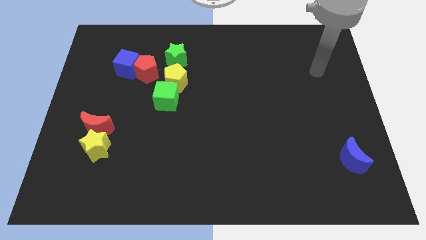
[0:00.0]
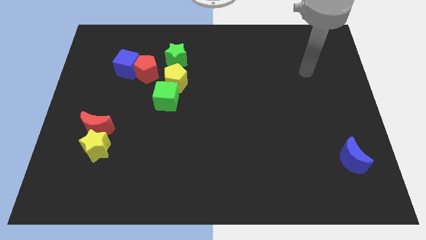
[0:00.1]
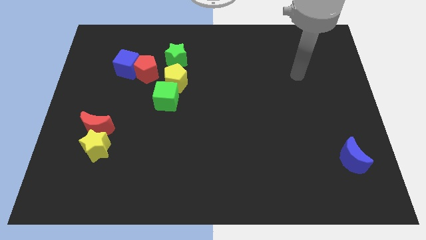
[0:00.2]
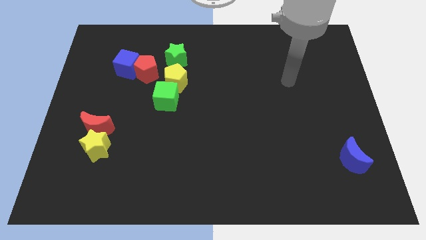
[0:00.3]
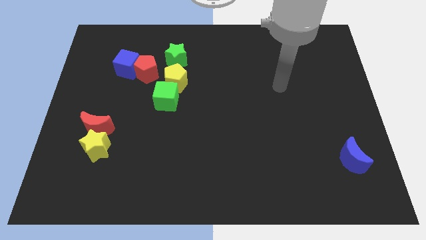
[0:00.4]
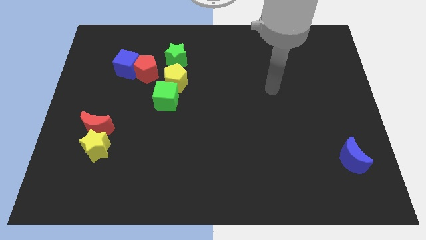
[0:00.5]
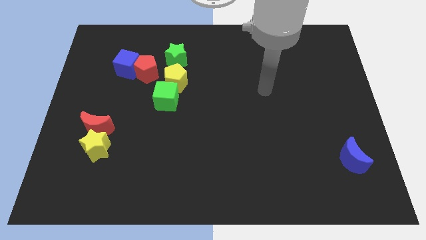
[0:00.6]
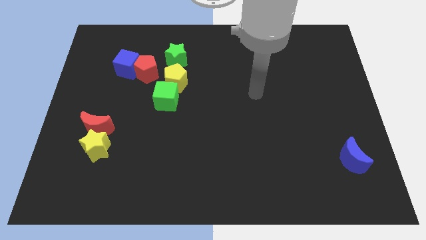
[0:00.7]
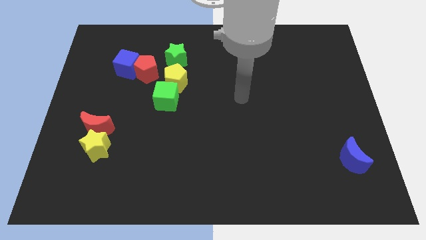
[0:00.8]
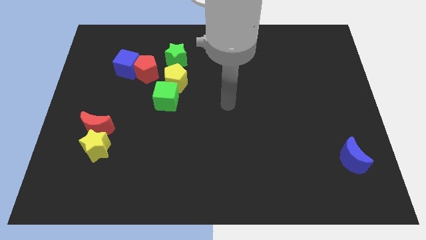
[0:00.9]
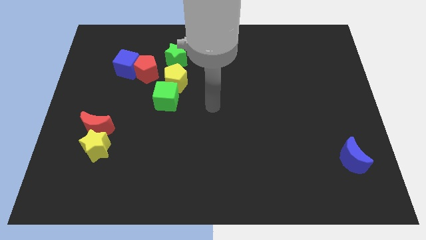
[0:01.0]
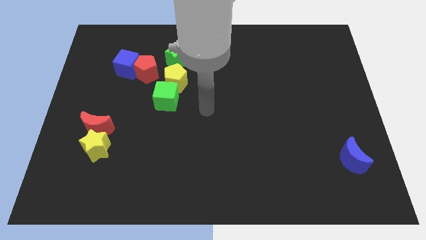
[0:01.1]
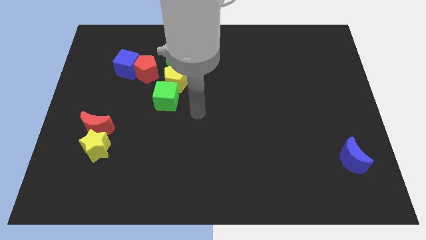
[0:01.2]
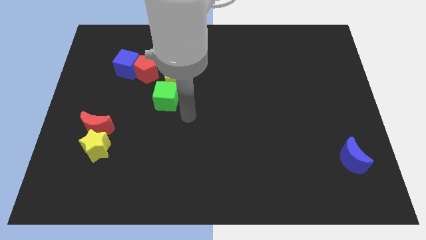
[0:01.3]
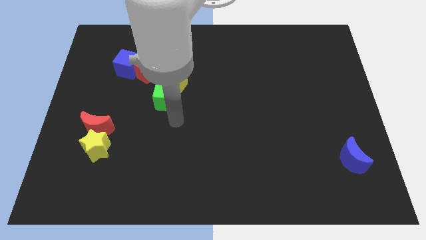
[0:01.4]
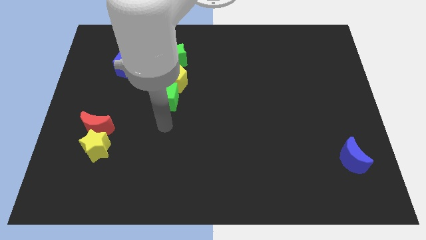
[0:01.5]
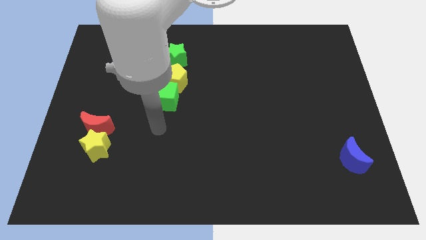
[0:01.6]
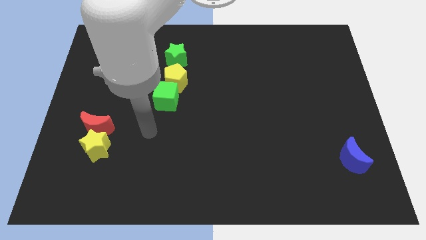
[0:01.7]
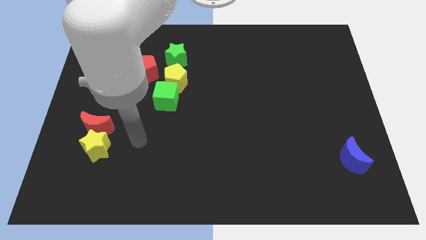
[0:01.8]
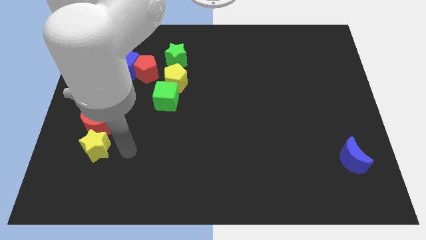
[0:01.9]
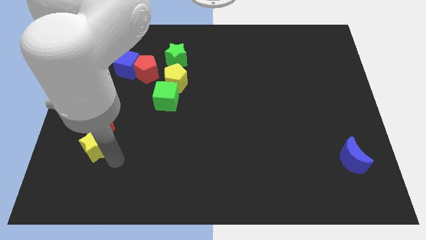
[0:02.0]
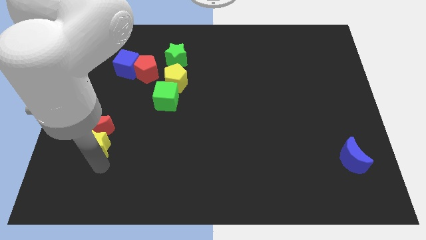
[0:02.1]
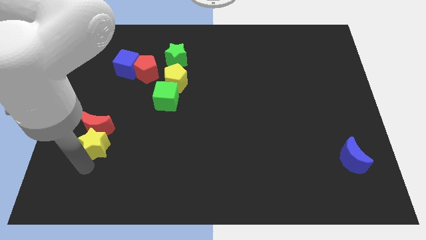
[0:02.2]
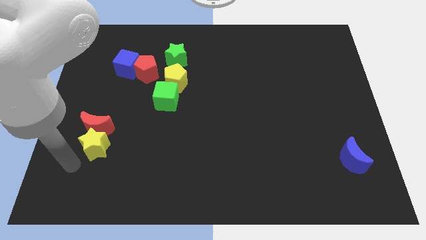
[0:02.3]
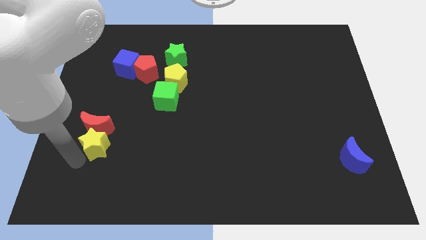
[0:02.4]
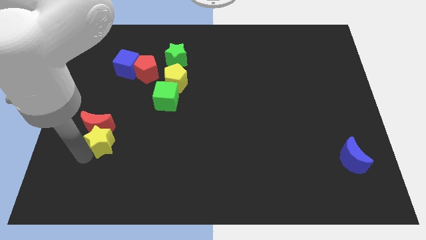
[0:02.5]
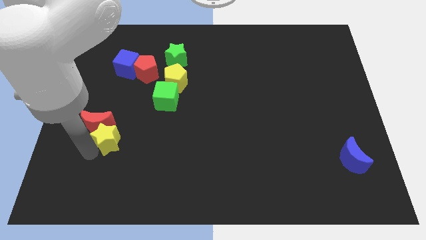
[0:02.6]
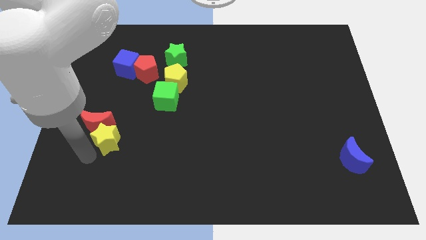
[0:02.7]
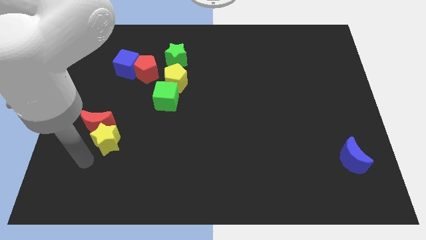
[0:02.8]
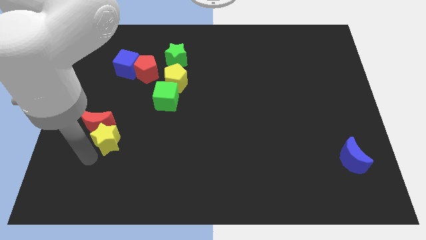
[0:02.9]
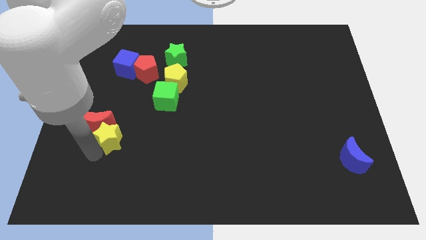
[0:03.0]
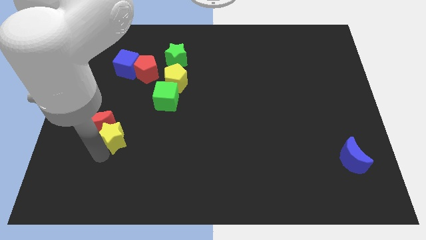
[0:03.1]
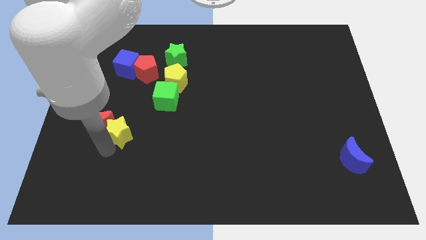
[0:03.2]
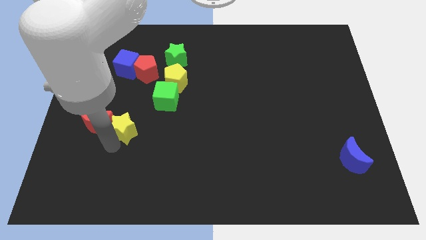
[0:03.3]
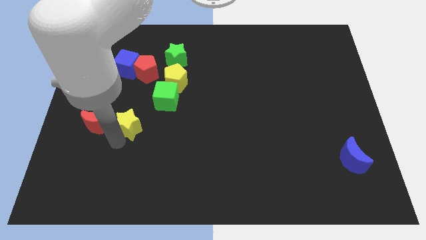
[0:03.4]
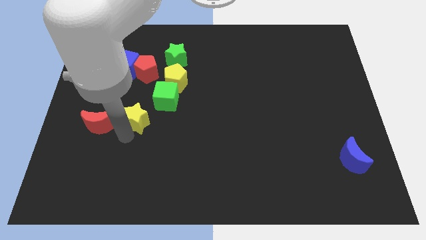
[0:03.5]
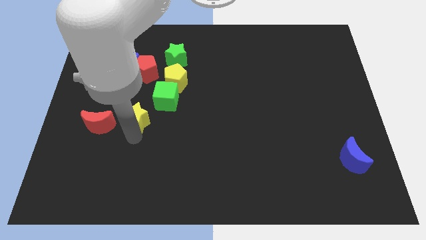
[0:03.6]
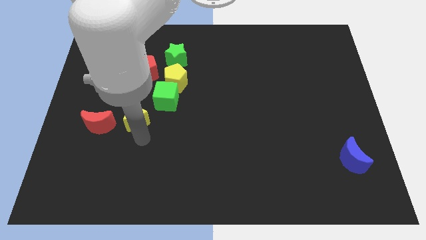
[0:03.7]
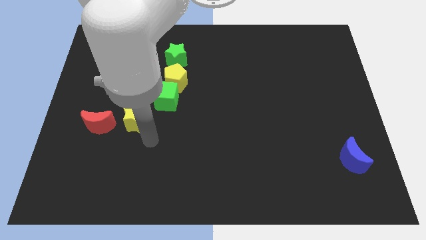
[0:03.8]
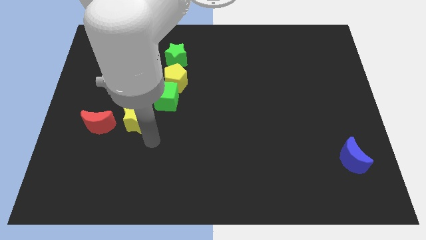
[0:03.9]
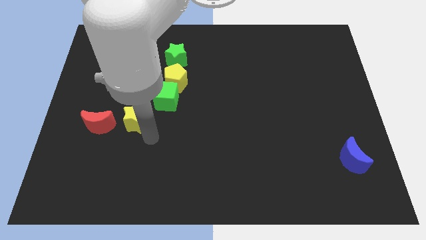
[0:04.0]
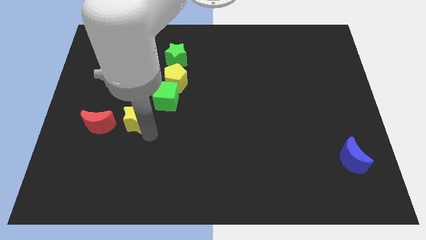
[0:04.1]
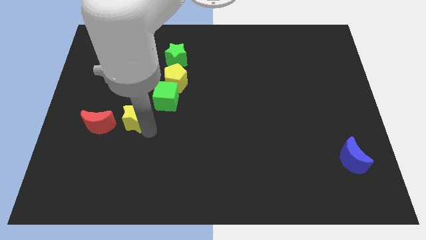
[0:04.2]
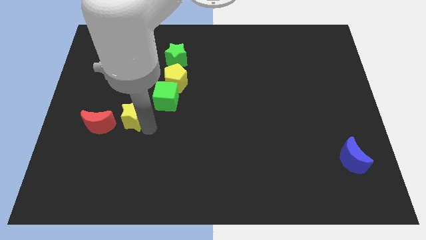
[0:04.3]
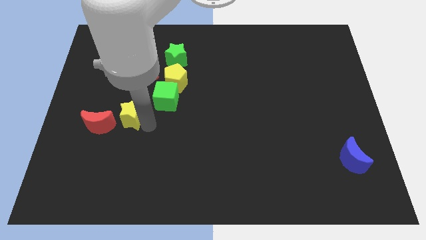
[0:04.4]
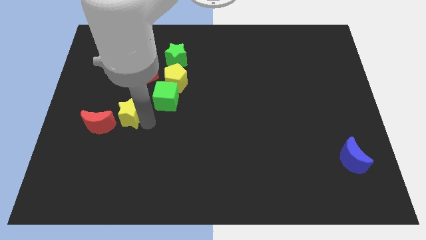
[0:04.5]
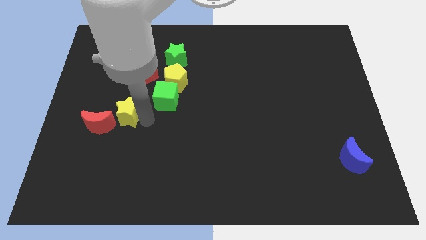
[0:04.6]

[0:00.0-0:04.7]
push the yellow star below the blue cube

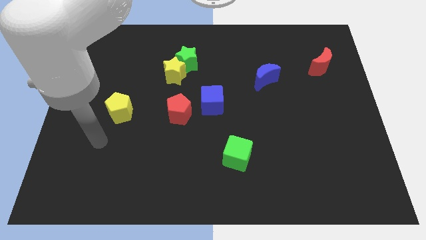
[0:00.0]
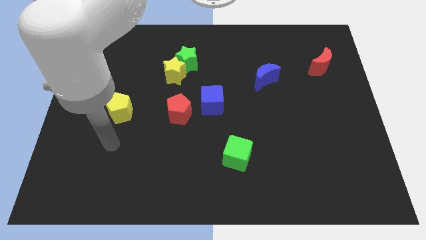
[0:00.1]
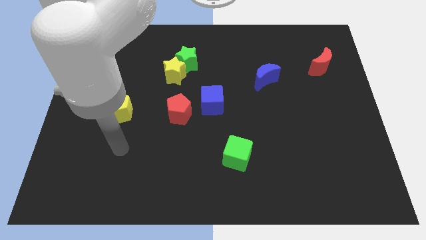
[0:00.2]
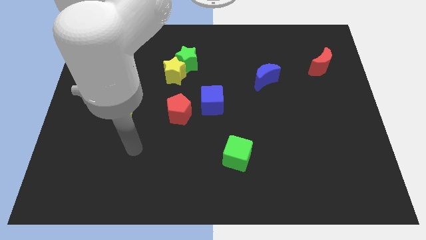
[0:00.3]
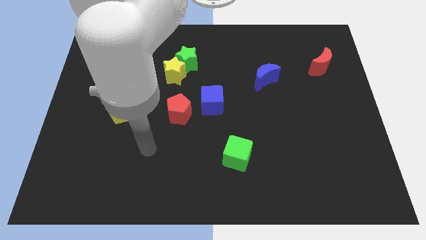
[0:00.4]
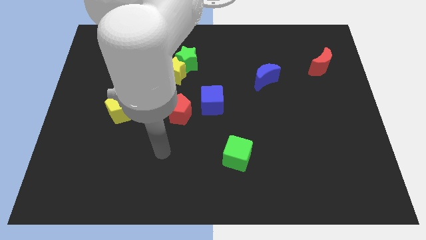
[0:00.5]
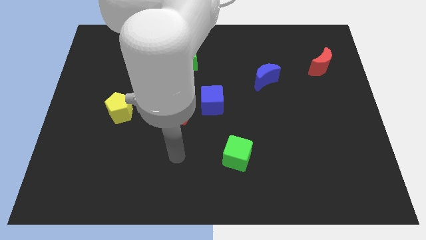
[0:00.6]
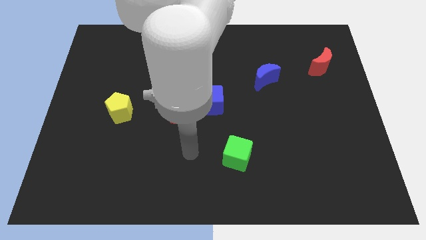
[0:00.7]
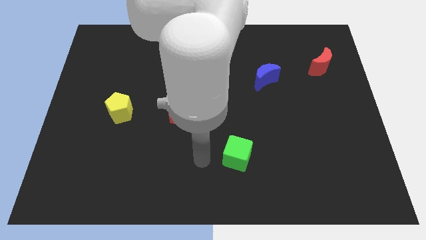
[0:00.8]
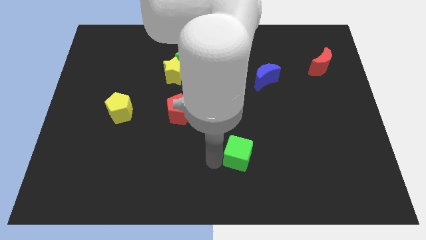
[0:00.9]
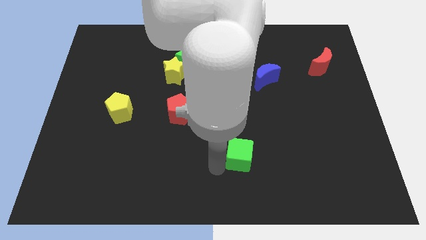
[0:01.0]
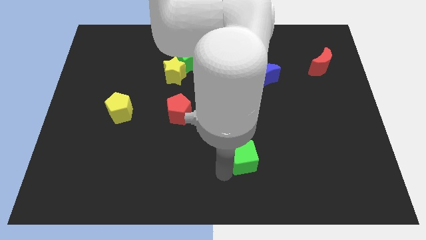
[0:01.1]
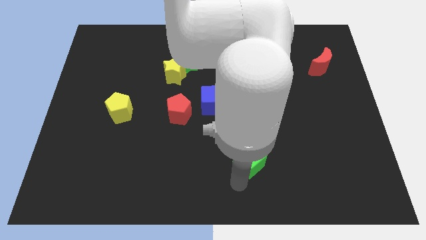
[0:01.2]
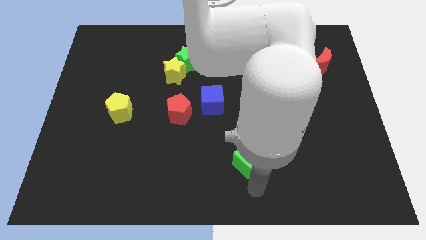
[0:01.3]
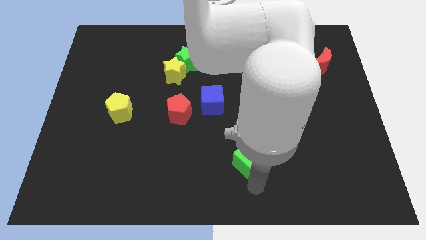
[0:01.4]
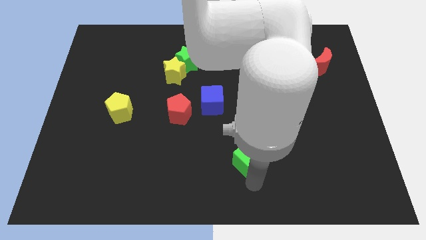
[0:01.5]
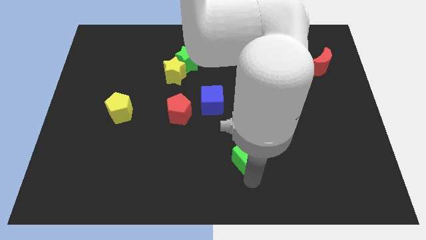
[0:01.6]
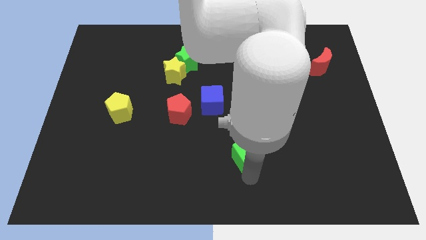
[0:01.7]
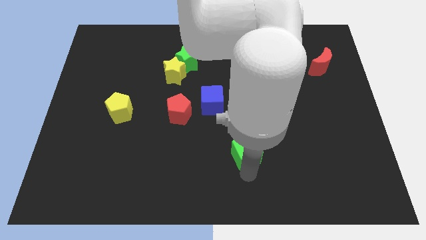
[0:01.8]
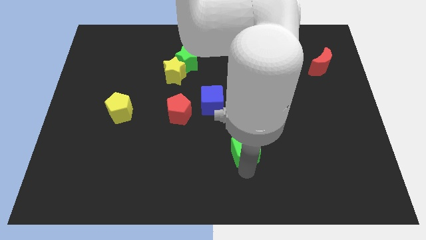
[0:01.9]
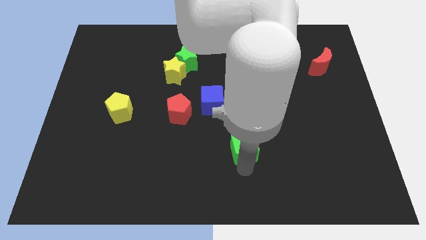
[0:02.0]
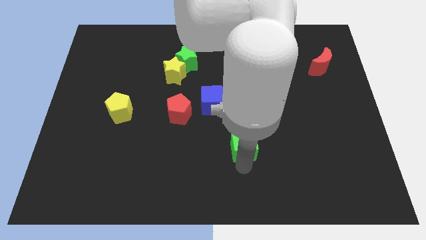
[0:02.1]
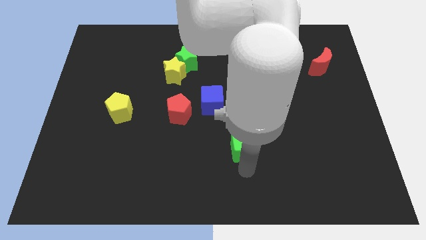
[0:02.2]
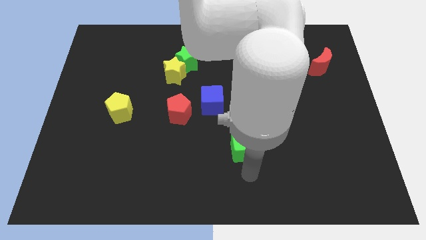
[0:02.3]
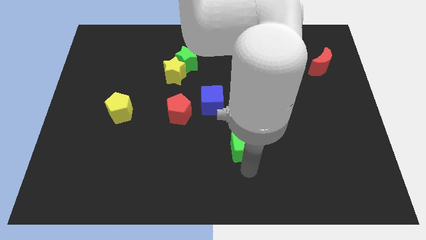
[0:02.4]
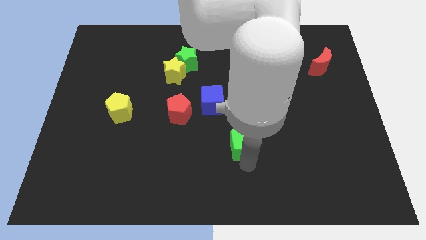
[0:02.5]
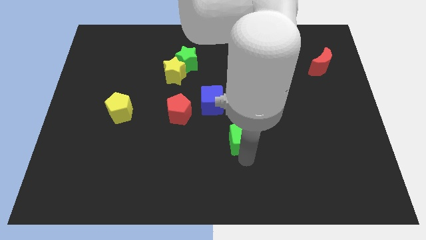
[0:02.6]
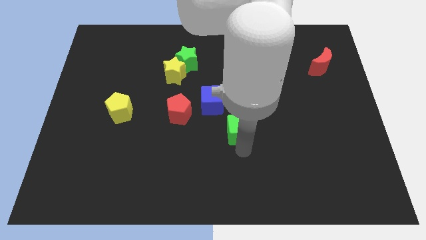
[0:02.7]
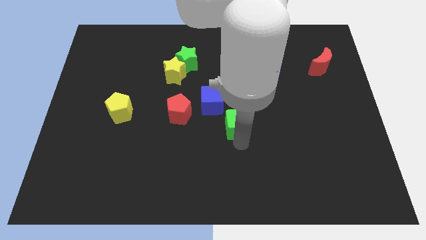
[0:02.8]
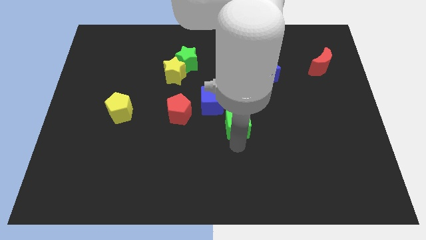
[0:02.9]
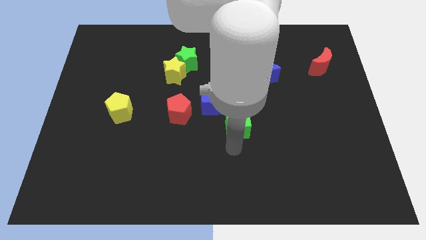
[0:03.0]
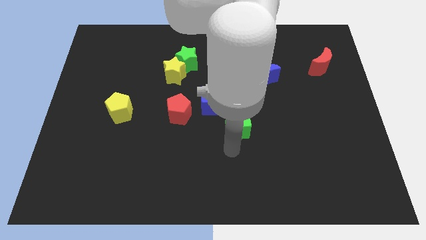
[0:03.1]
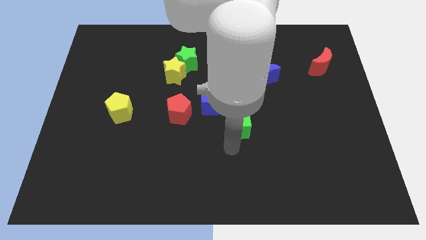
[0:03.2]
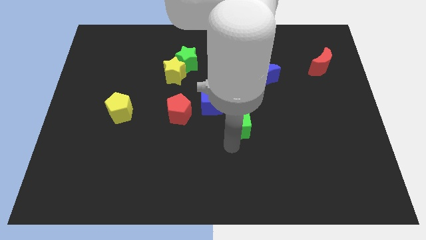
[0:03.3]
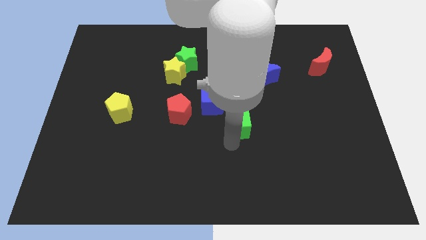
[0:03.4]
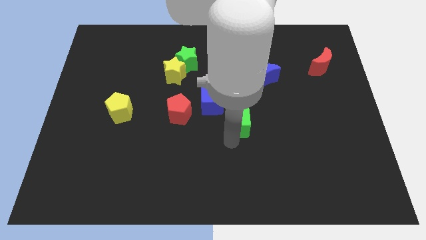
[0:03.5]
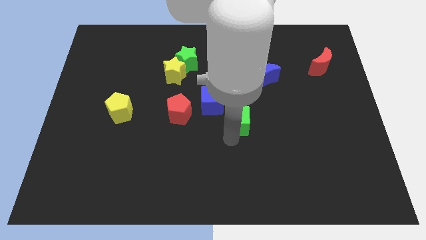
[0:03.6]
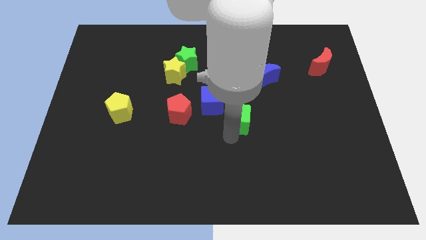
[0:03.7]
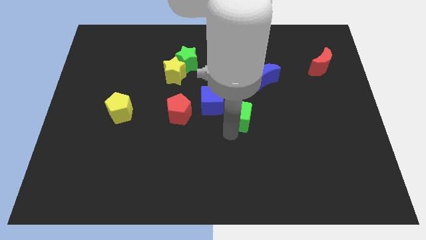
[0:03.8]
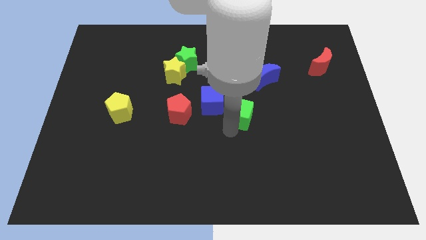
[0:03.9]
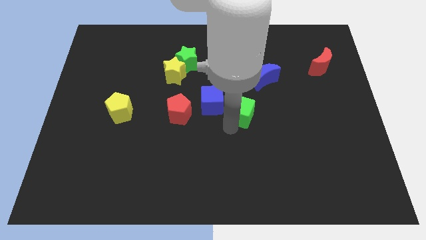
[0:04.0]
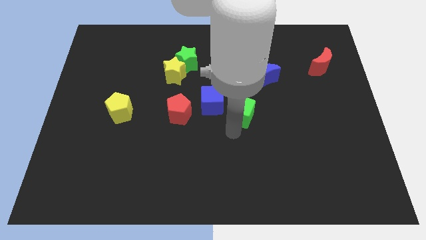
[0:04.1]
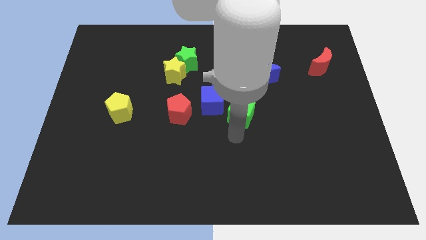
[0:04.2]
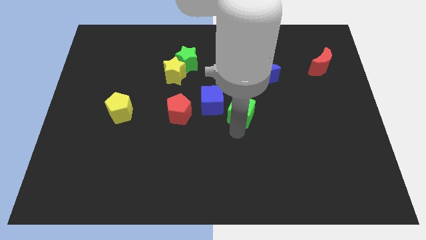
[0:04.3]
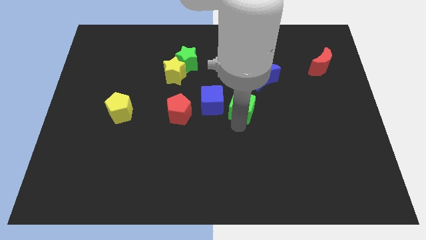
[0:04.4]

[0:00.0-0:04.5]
slide the green cube to the bottom left of the blue moon
